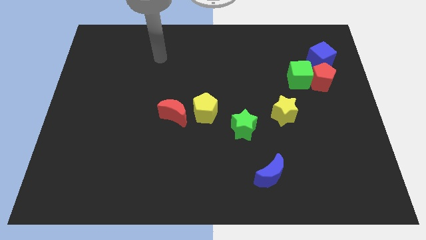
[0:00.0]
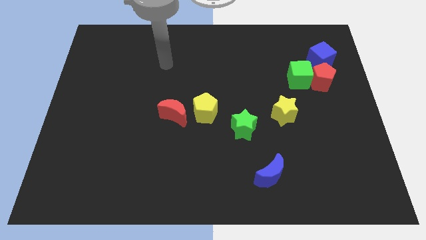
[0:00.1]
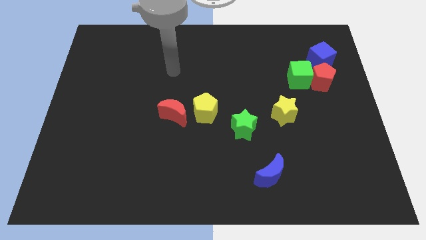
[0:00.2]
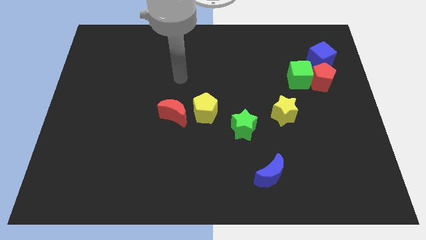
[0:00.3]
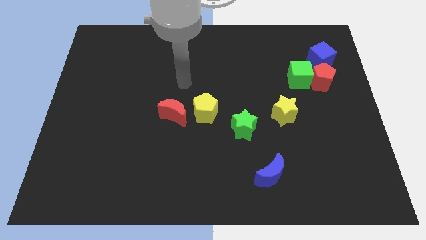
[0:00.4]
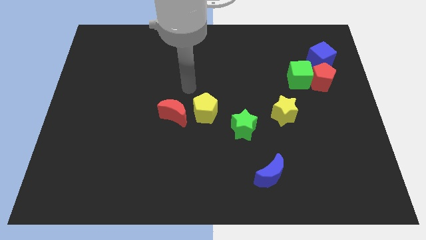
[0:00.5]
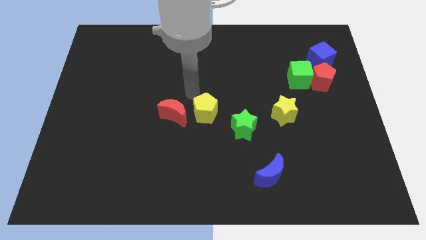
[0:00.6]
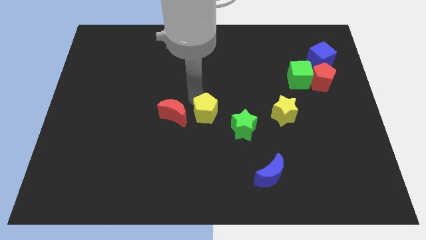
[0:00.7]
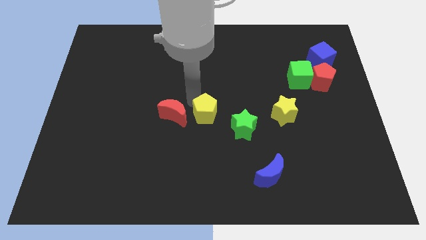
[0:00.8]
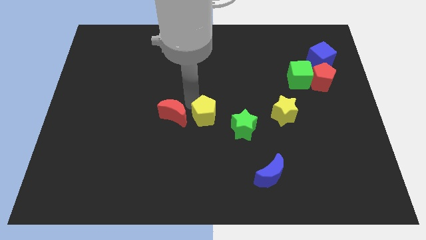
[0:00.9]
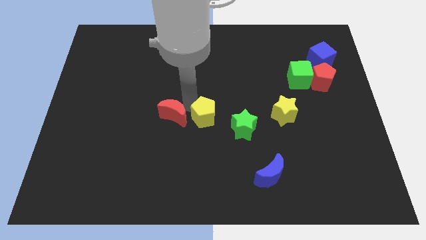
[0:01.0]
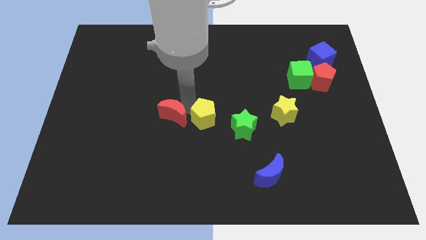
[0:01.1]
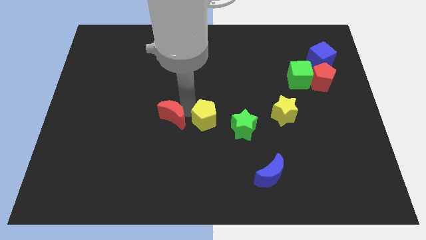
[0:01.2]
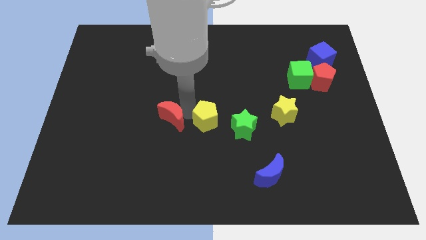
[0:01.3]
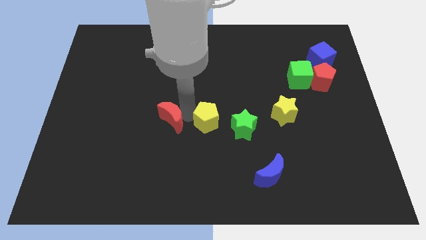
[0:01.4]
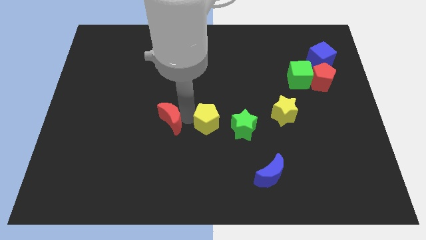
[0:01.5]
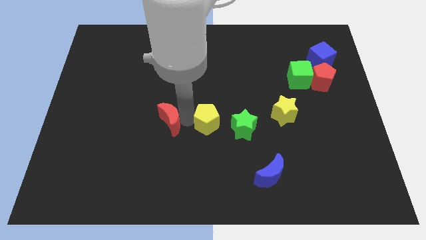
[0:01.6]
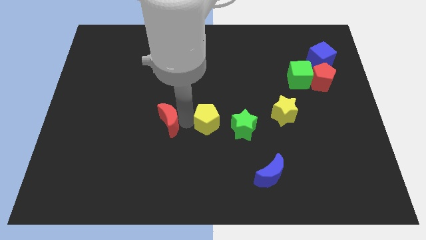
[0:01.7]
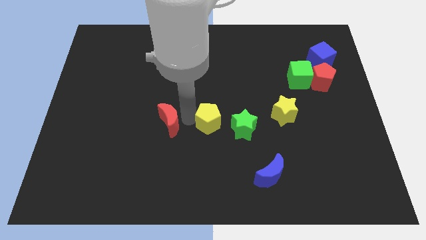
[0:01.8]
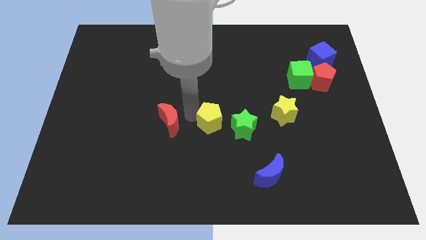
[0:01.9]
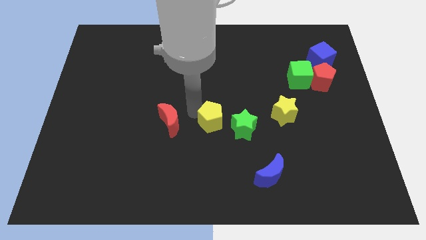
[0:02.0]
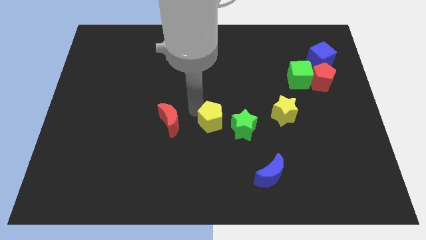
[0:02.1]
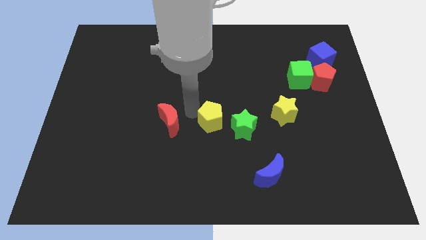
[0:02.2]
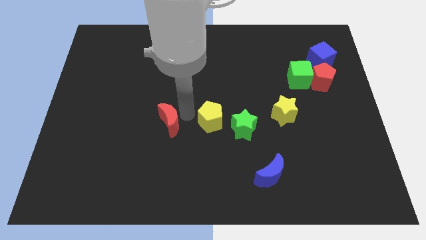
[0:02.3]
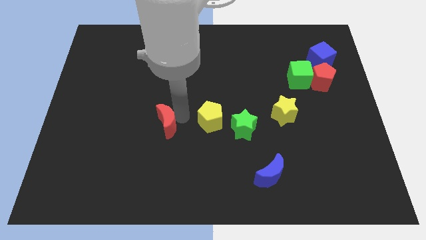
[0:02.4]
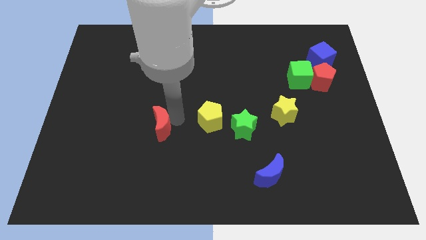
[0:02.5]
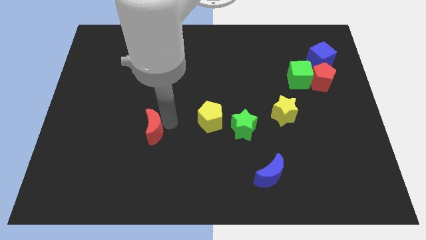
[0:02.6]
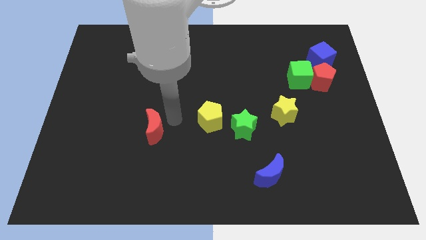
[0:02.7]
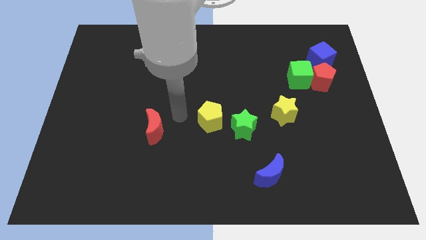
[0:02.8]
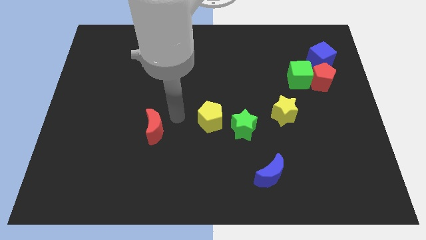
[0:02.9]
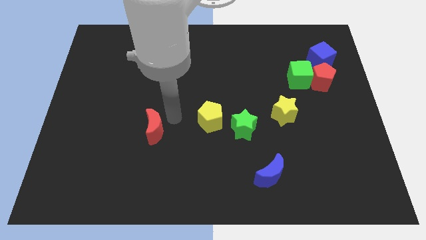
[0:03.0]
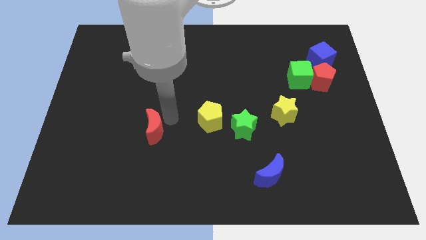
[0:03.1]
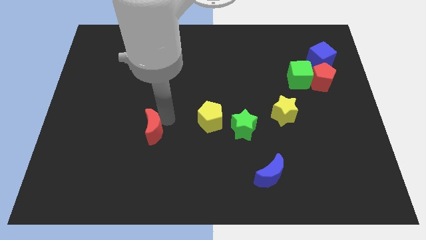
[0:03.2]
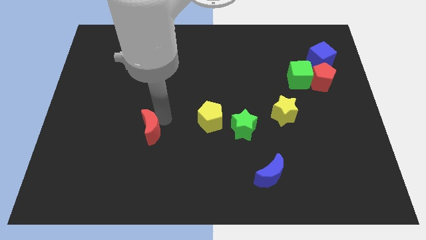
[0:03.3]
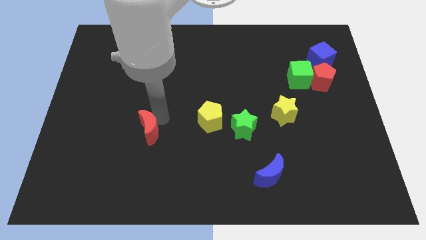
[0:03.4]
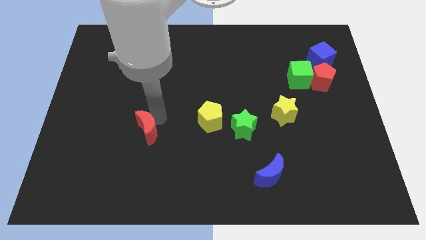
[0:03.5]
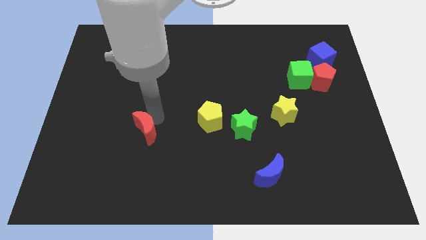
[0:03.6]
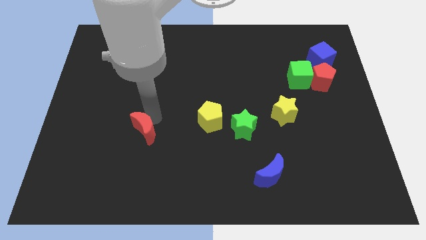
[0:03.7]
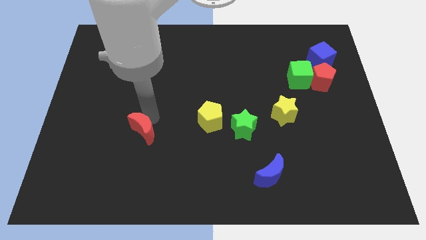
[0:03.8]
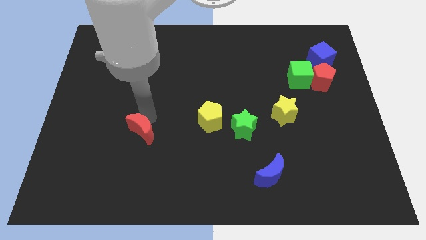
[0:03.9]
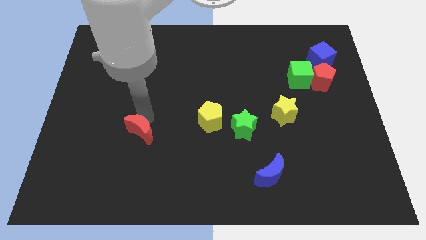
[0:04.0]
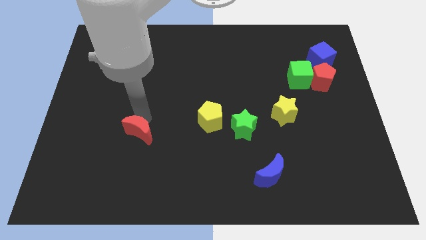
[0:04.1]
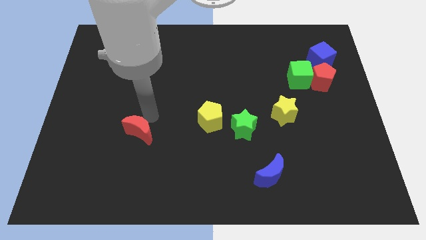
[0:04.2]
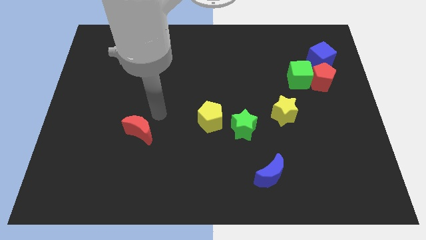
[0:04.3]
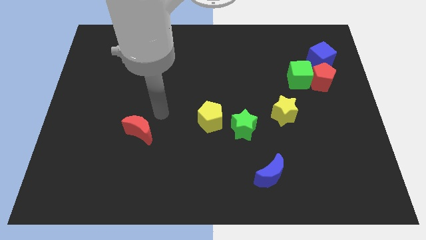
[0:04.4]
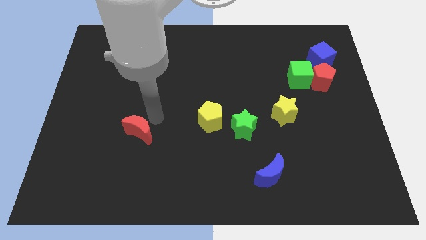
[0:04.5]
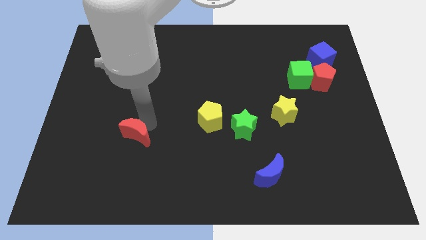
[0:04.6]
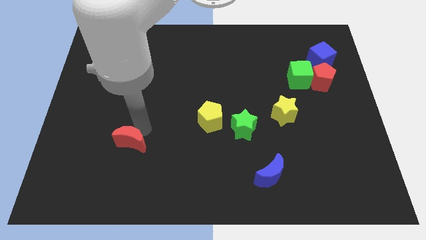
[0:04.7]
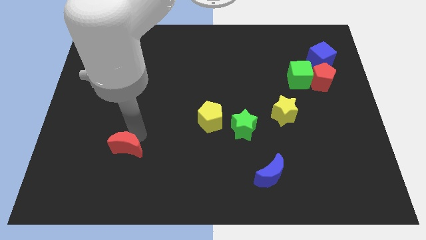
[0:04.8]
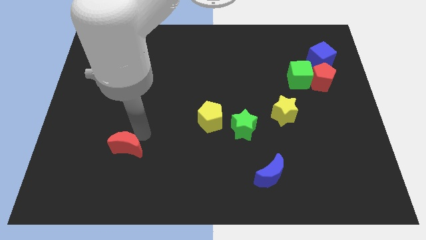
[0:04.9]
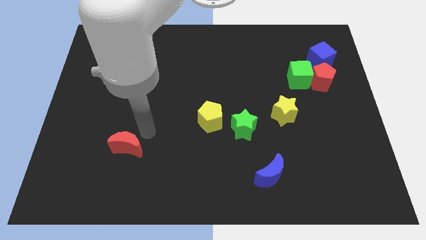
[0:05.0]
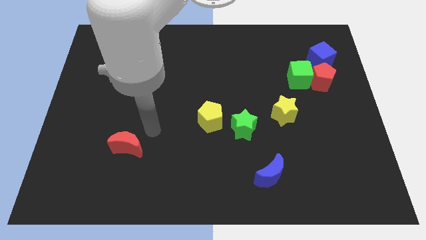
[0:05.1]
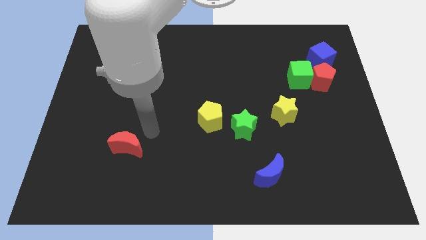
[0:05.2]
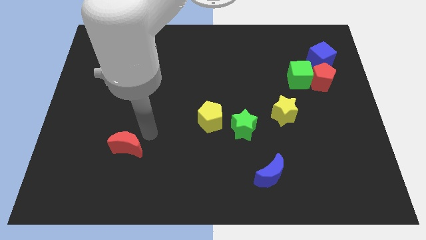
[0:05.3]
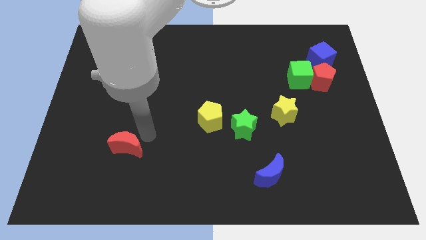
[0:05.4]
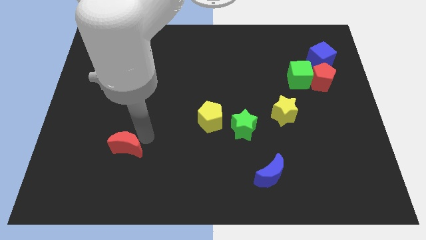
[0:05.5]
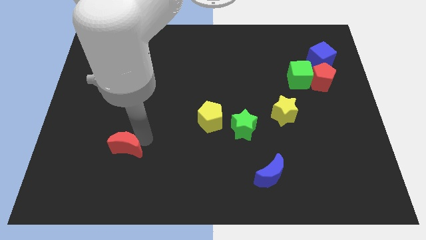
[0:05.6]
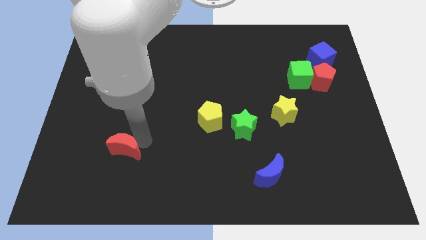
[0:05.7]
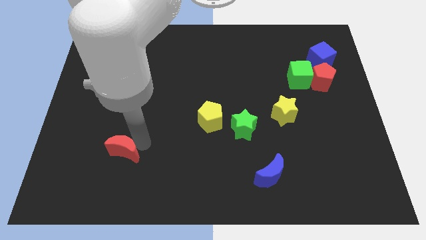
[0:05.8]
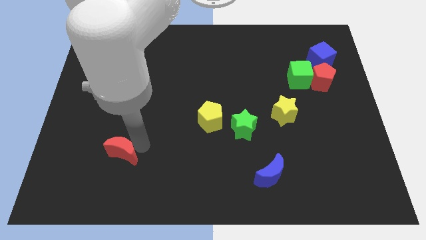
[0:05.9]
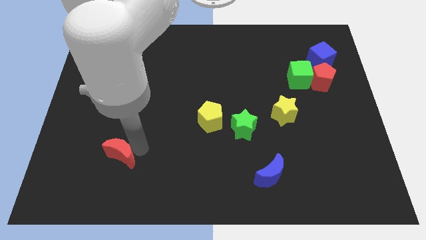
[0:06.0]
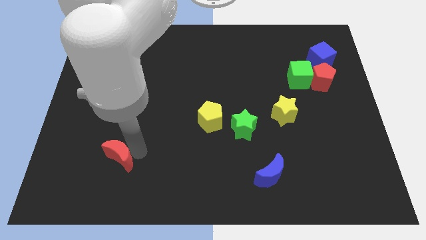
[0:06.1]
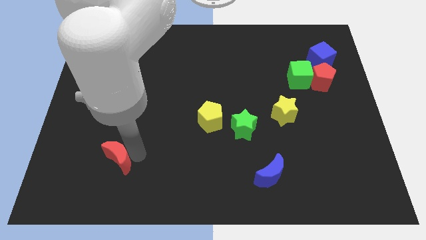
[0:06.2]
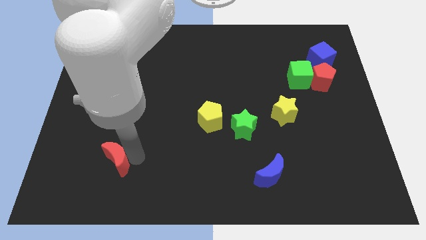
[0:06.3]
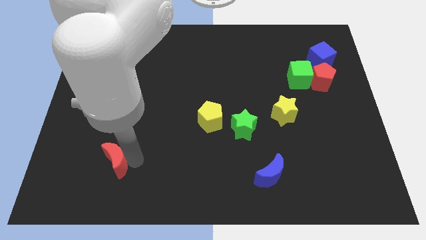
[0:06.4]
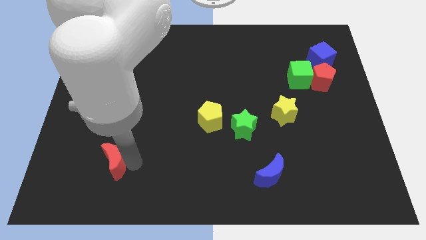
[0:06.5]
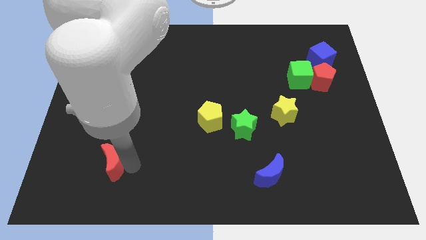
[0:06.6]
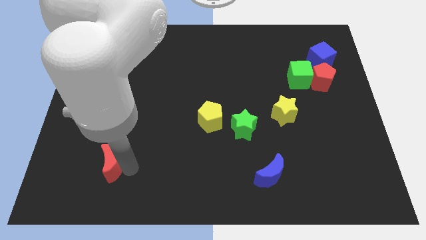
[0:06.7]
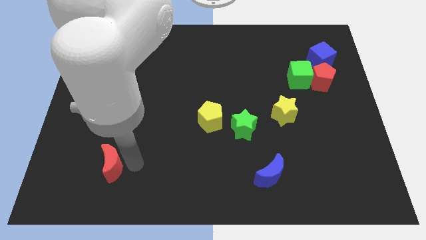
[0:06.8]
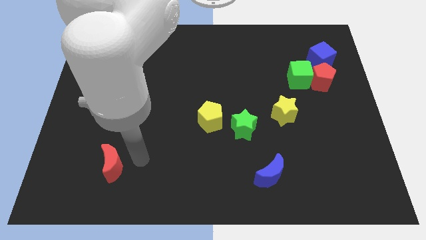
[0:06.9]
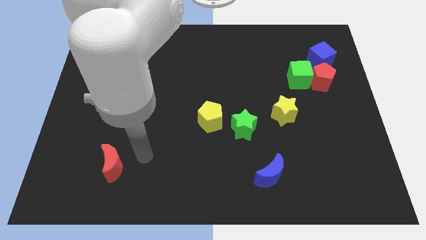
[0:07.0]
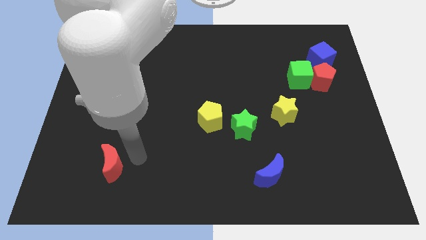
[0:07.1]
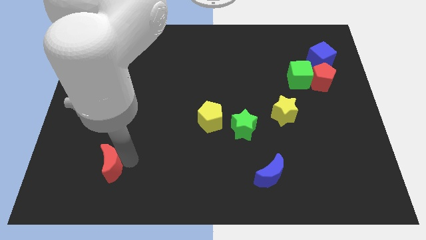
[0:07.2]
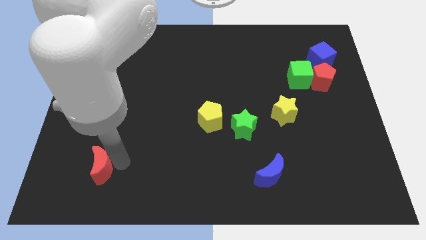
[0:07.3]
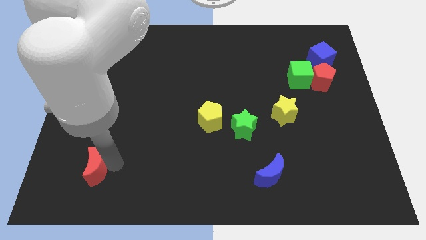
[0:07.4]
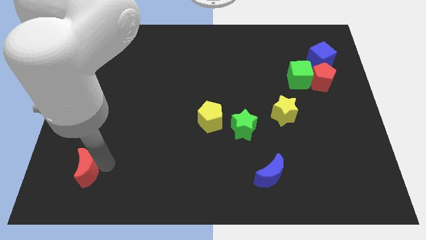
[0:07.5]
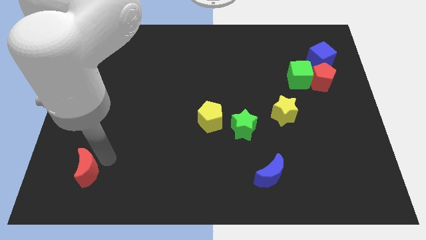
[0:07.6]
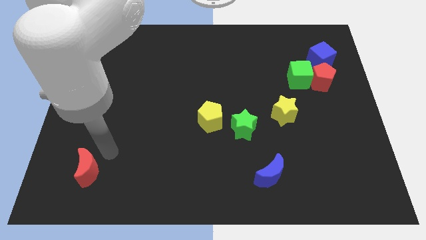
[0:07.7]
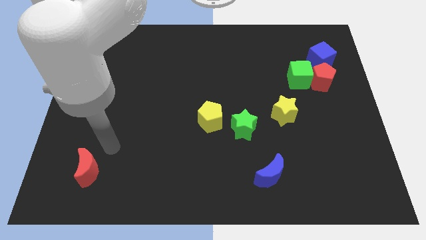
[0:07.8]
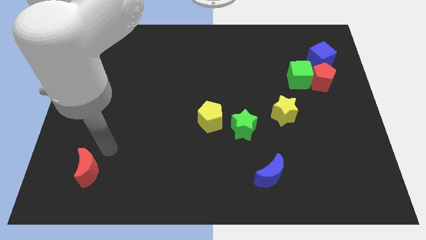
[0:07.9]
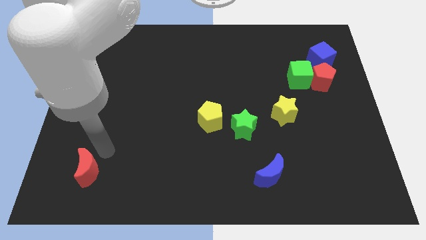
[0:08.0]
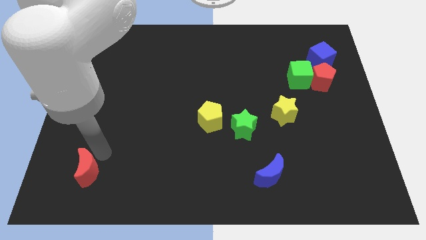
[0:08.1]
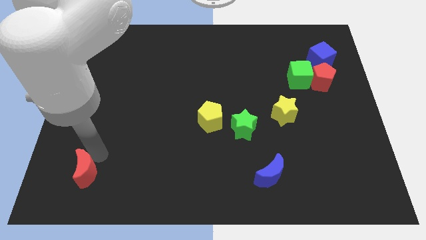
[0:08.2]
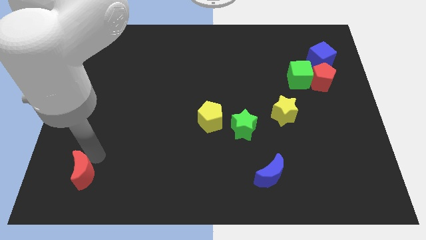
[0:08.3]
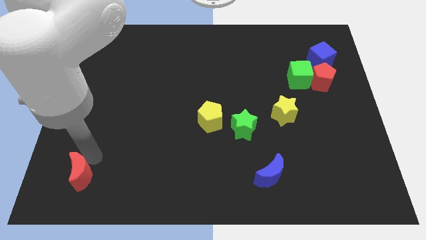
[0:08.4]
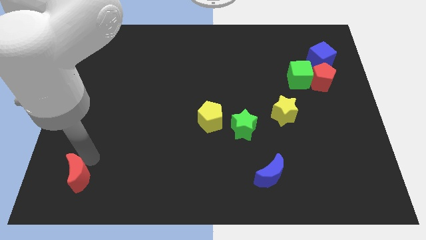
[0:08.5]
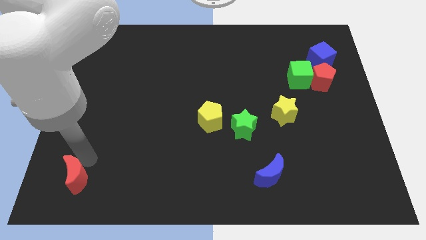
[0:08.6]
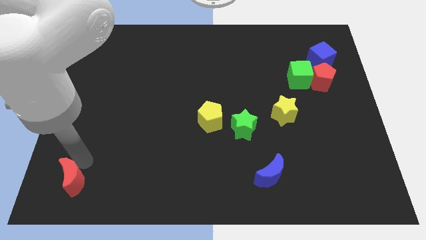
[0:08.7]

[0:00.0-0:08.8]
slide the red moon to the bottom left corner
